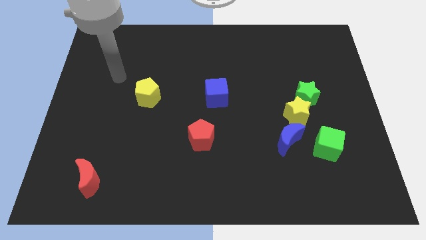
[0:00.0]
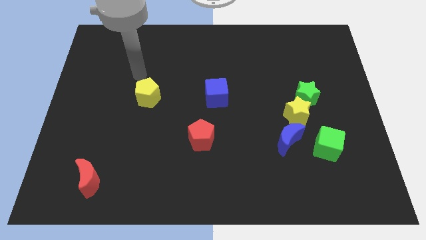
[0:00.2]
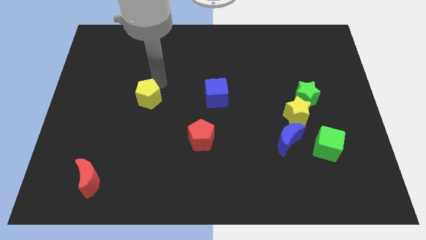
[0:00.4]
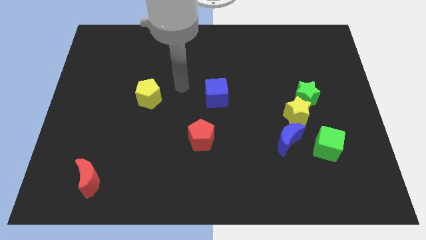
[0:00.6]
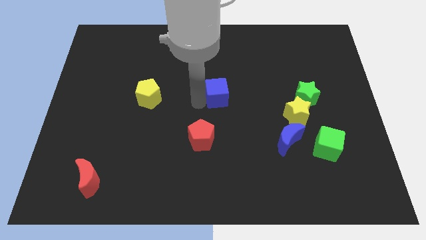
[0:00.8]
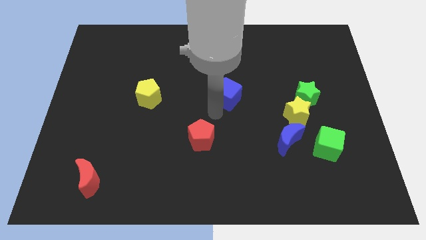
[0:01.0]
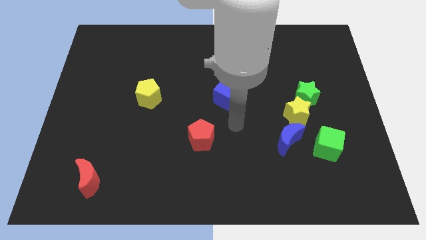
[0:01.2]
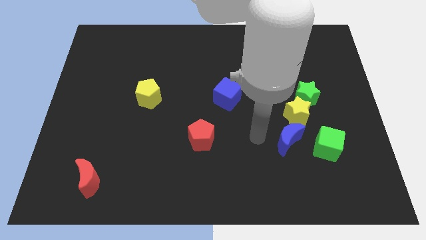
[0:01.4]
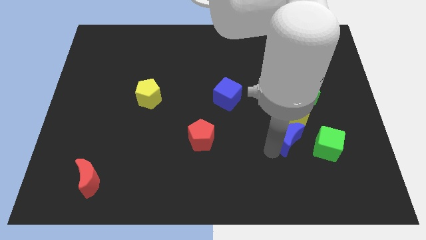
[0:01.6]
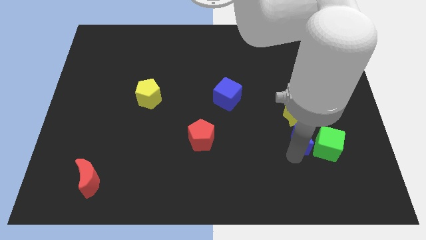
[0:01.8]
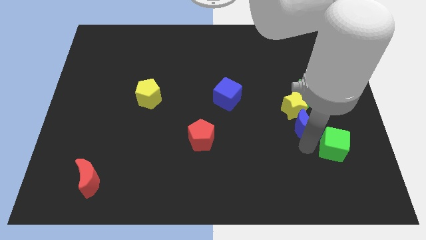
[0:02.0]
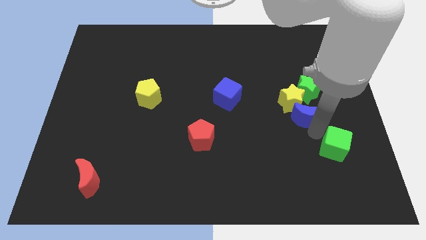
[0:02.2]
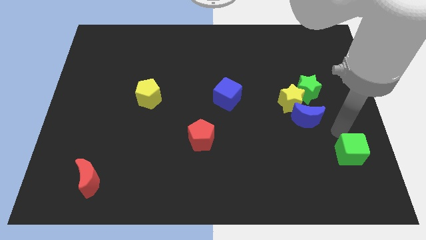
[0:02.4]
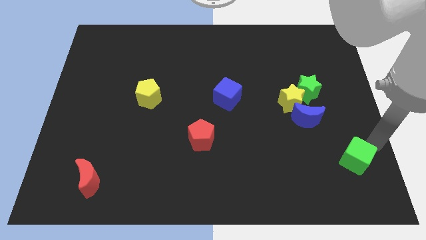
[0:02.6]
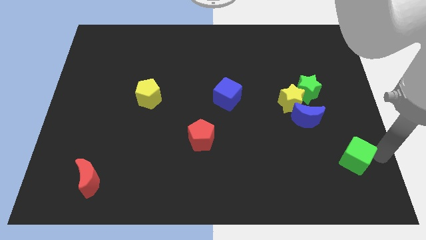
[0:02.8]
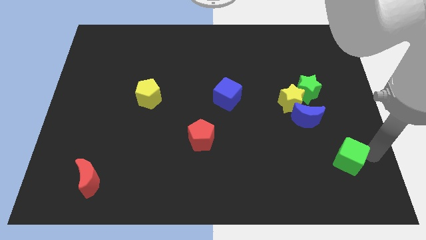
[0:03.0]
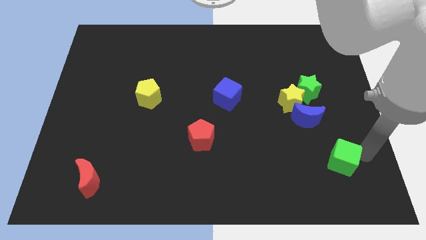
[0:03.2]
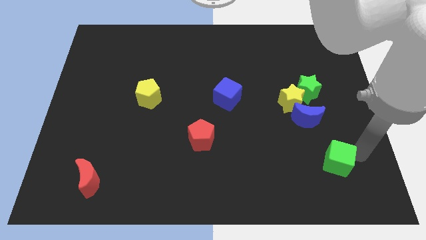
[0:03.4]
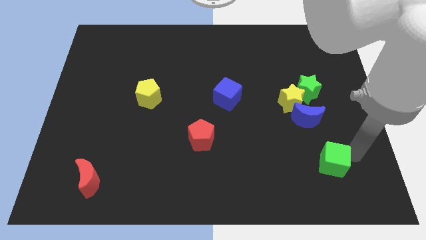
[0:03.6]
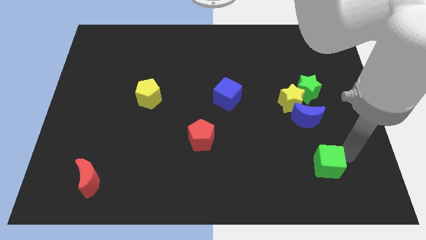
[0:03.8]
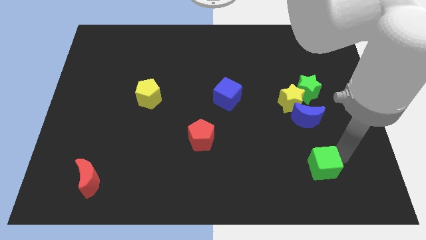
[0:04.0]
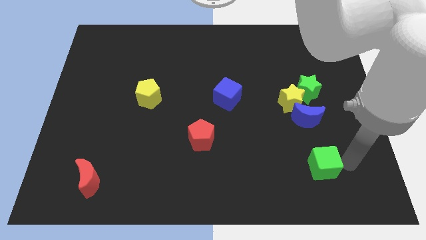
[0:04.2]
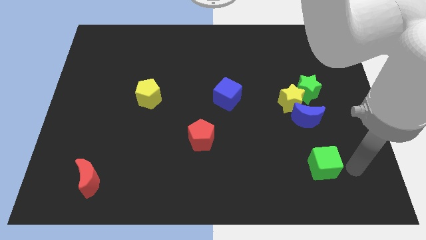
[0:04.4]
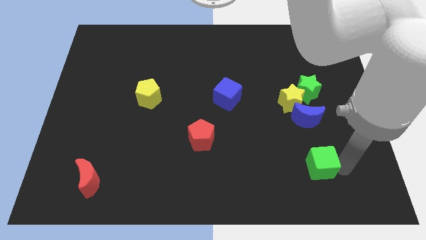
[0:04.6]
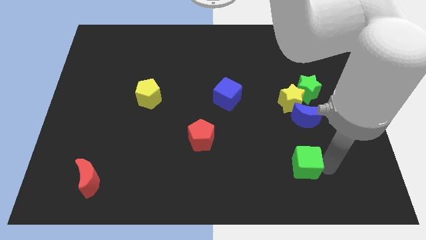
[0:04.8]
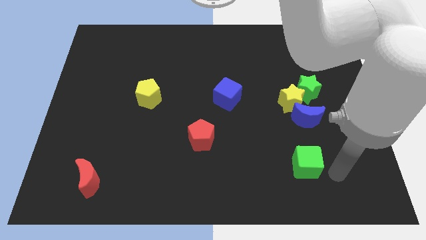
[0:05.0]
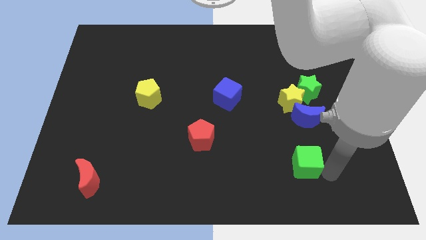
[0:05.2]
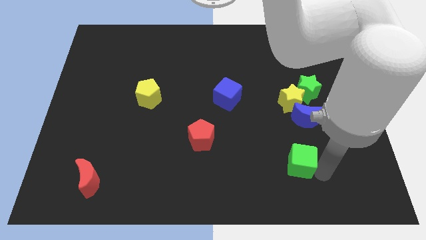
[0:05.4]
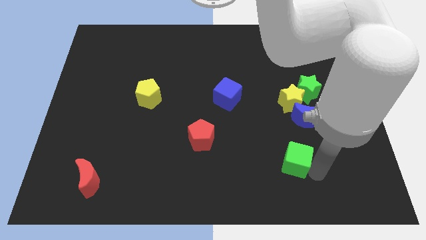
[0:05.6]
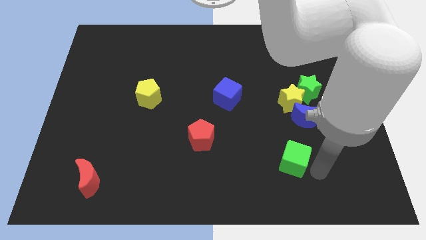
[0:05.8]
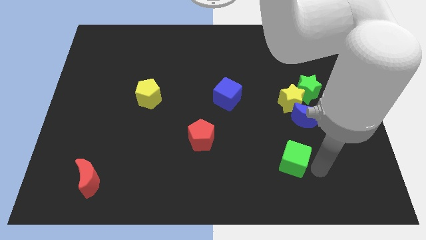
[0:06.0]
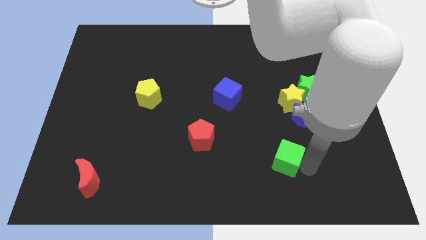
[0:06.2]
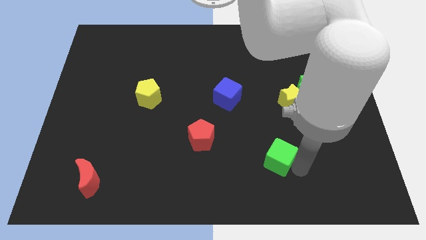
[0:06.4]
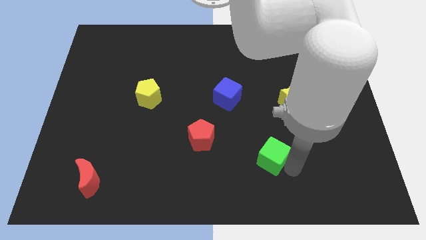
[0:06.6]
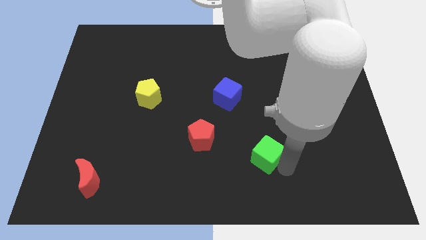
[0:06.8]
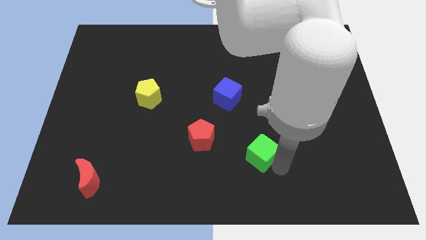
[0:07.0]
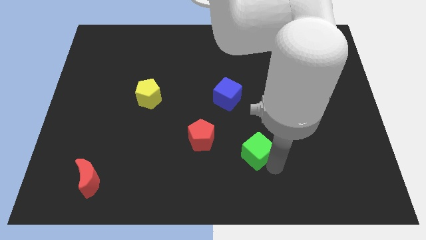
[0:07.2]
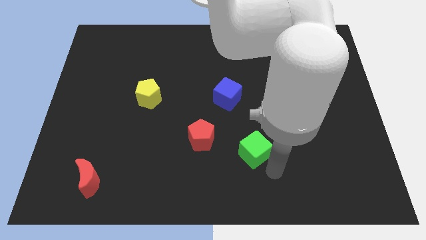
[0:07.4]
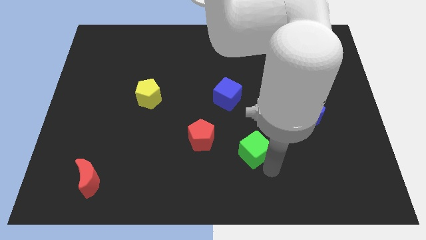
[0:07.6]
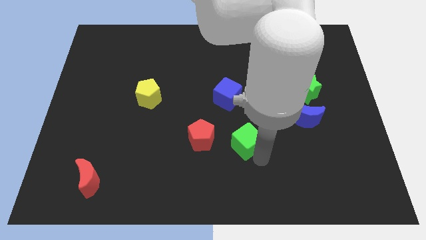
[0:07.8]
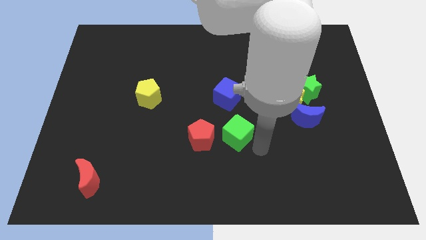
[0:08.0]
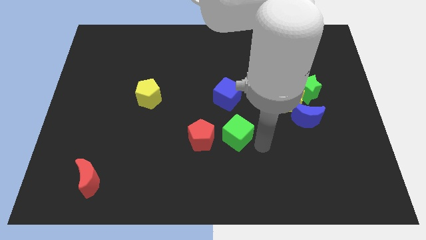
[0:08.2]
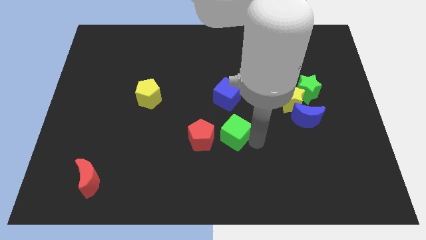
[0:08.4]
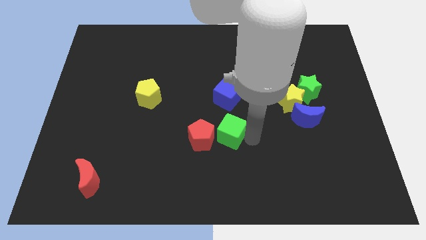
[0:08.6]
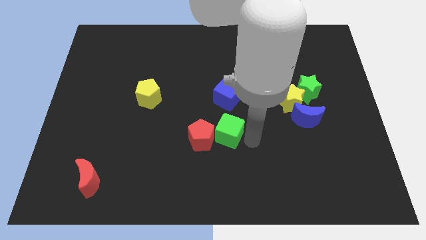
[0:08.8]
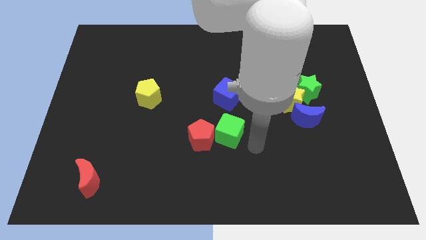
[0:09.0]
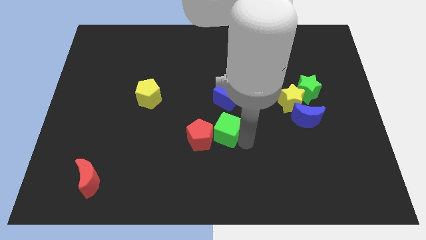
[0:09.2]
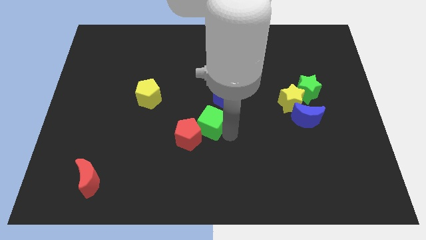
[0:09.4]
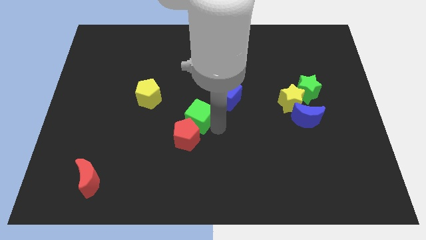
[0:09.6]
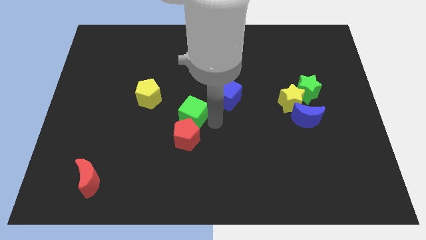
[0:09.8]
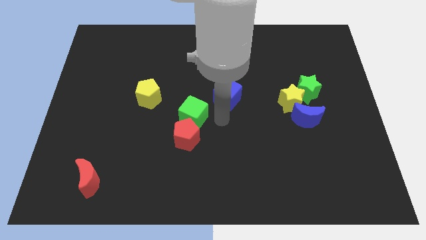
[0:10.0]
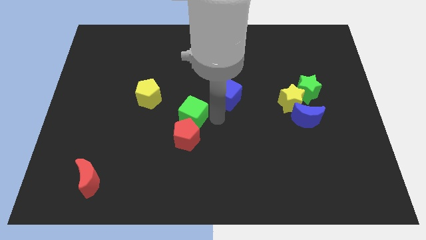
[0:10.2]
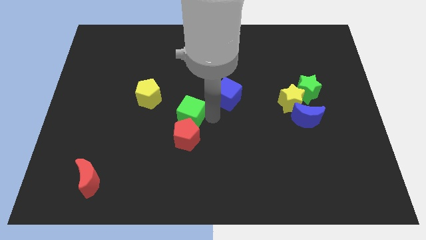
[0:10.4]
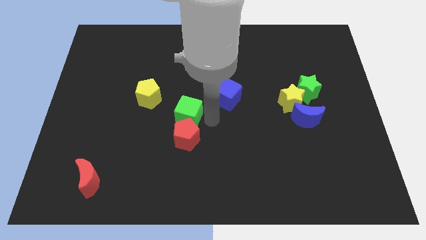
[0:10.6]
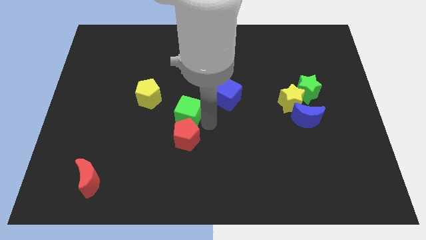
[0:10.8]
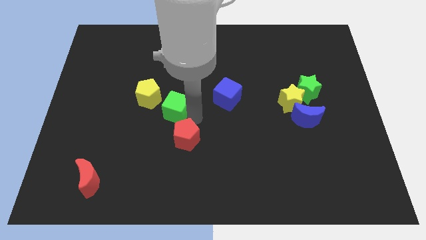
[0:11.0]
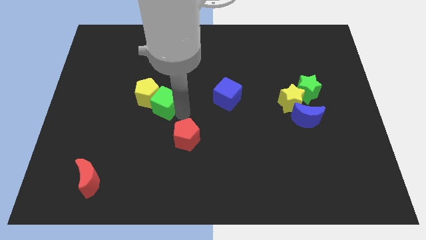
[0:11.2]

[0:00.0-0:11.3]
put the green cube towards the yellow pentagon

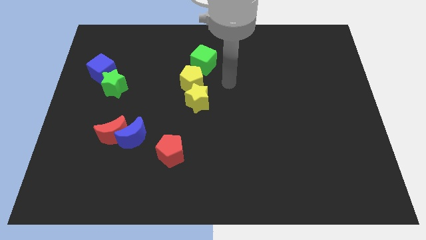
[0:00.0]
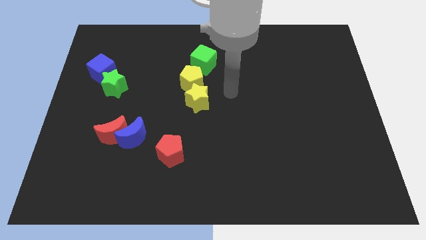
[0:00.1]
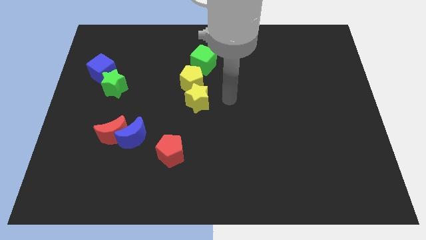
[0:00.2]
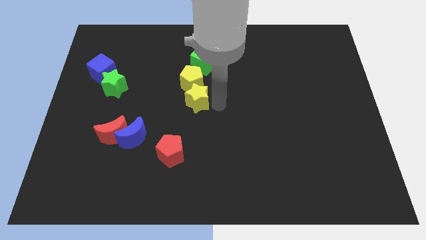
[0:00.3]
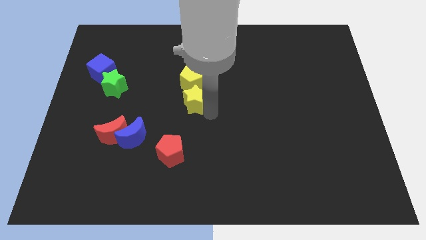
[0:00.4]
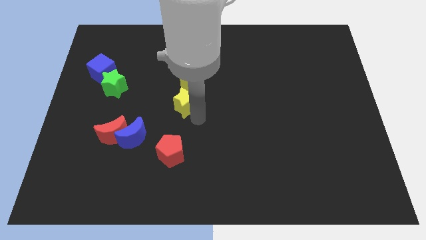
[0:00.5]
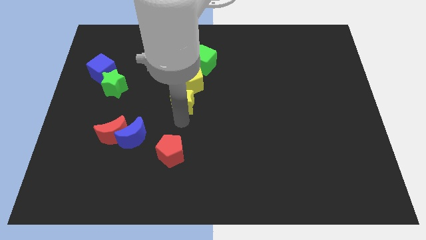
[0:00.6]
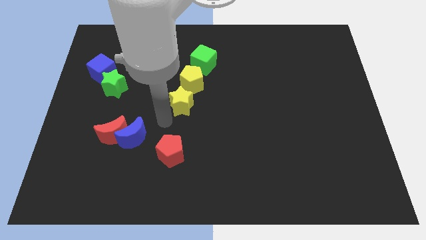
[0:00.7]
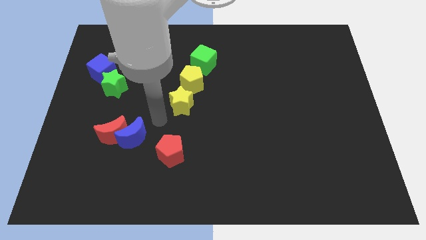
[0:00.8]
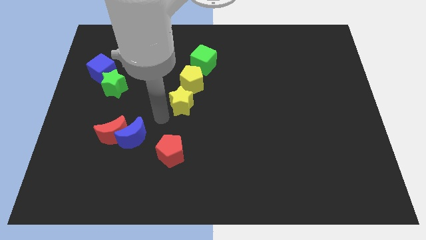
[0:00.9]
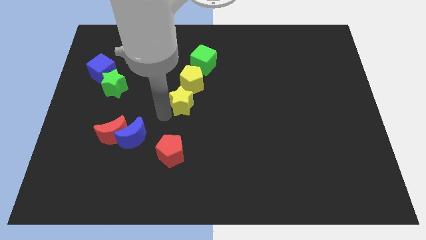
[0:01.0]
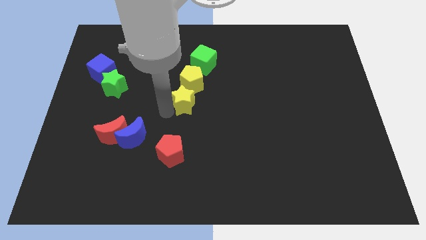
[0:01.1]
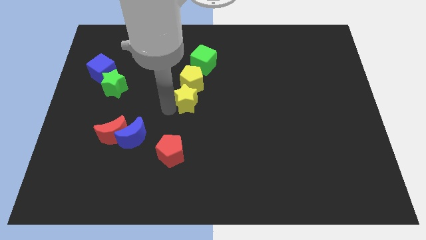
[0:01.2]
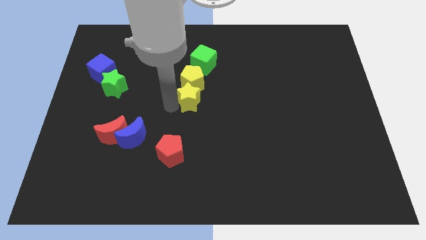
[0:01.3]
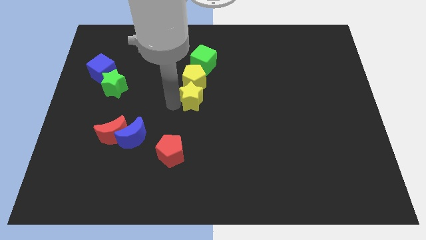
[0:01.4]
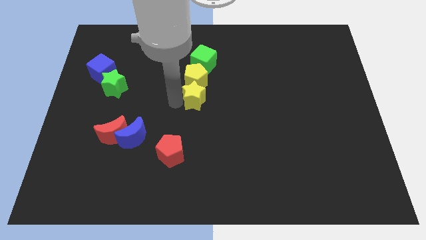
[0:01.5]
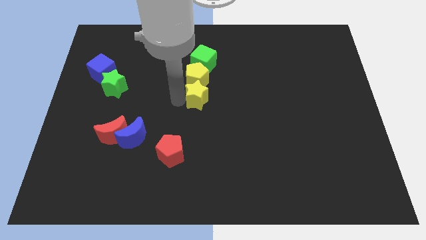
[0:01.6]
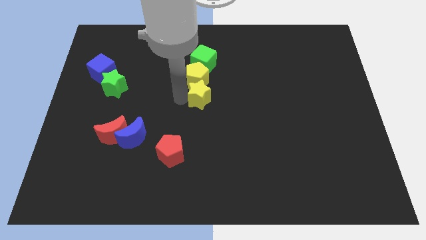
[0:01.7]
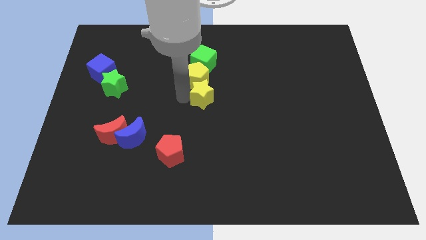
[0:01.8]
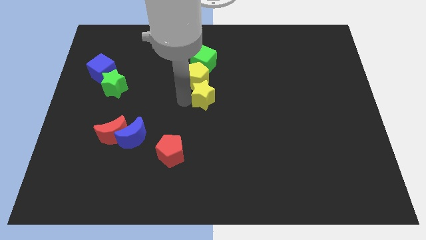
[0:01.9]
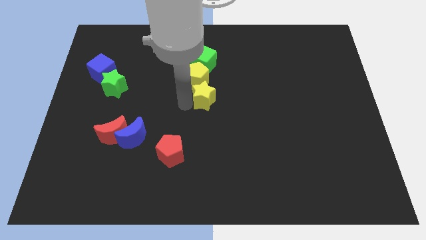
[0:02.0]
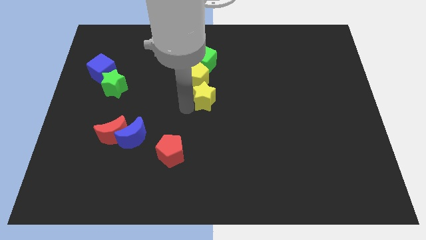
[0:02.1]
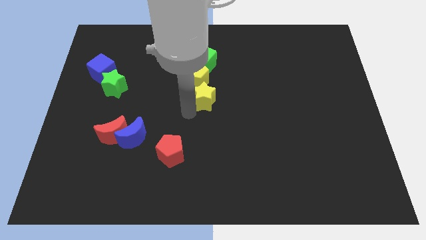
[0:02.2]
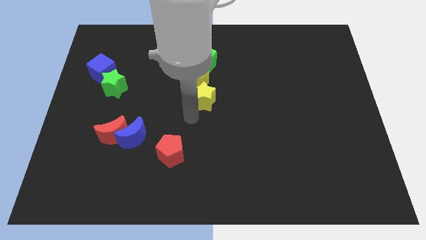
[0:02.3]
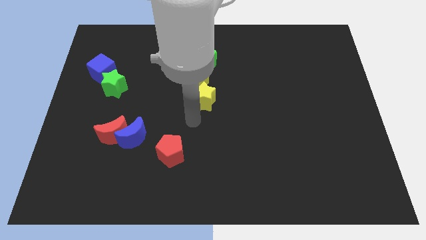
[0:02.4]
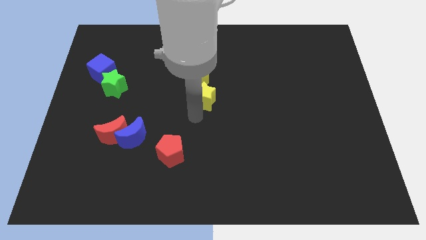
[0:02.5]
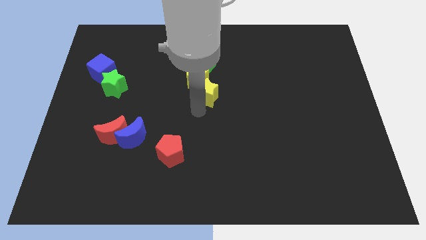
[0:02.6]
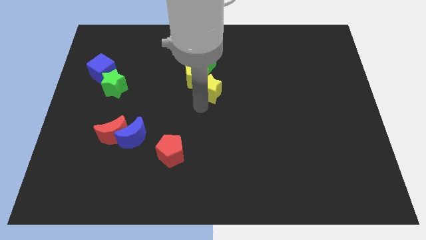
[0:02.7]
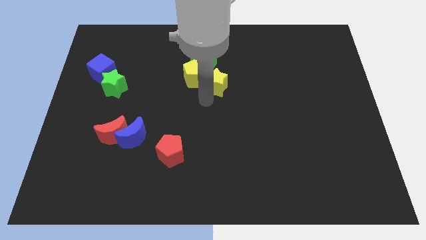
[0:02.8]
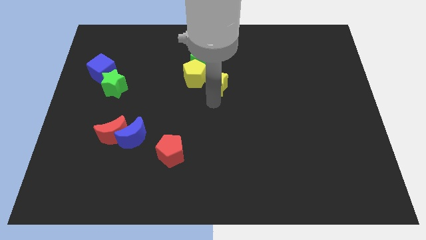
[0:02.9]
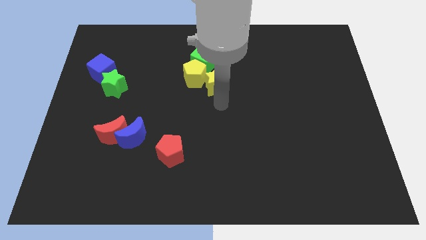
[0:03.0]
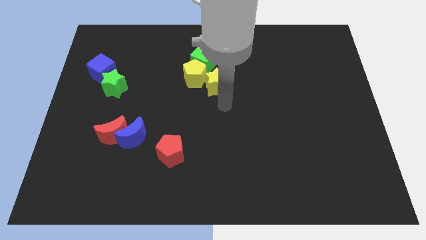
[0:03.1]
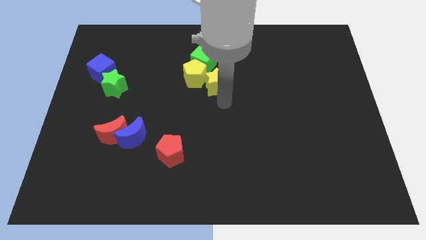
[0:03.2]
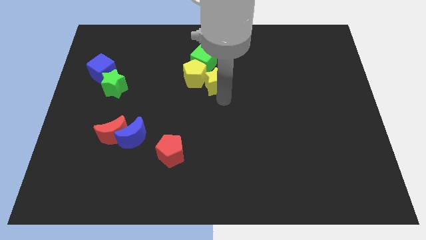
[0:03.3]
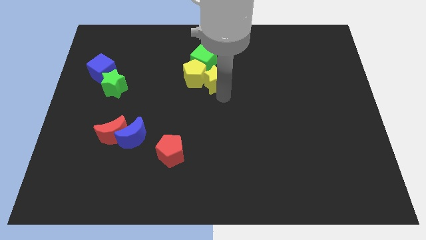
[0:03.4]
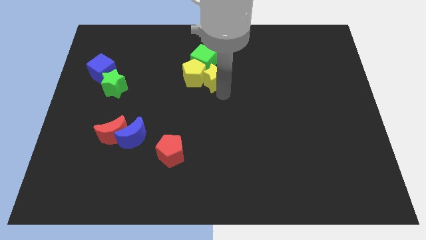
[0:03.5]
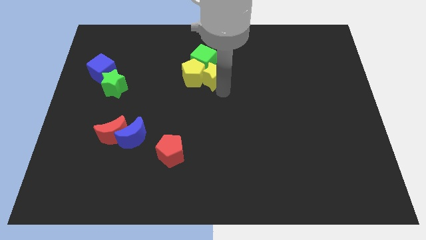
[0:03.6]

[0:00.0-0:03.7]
put the yellow star to the green cube
